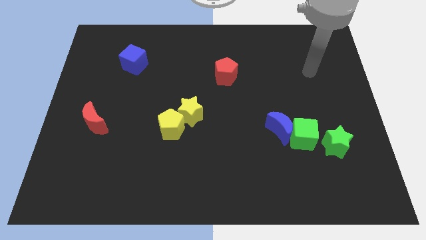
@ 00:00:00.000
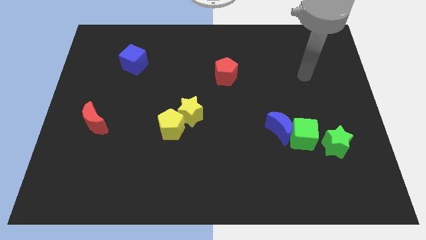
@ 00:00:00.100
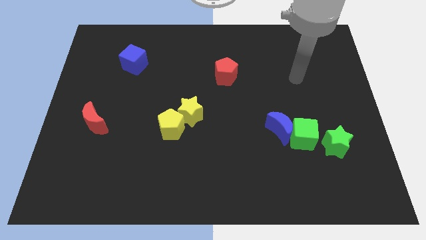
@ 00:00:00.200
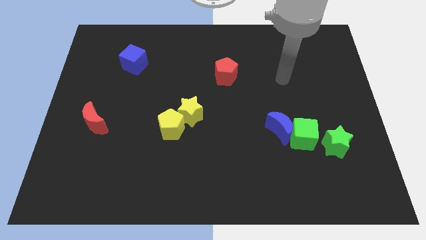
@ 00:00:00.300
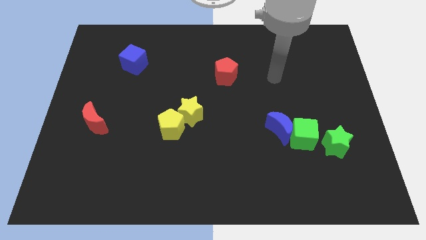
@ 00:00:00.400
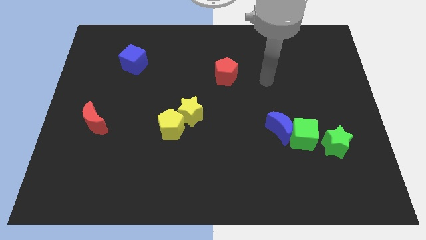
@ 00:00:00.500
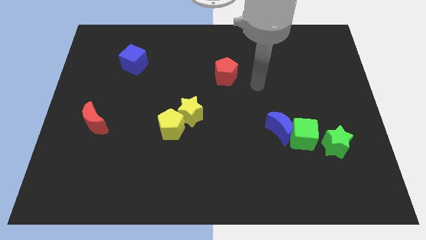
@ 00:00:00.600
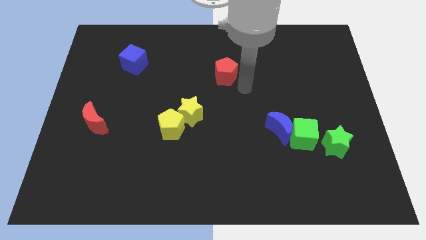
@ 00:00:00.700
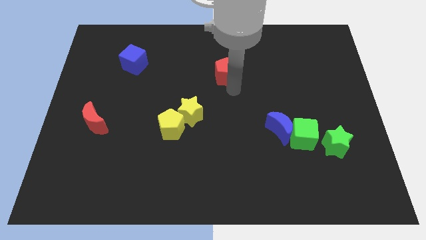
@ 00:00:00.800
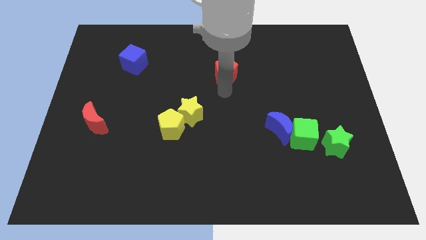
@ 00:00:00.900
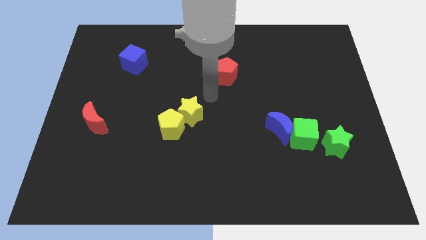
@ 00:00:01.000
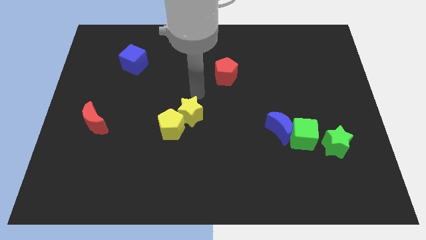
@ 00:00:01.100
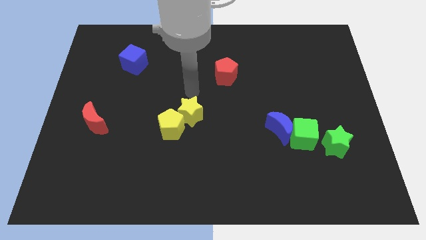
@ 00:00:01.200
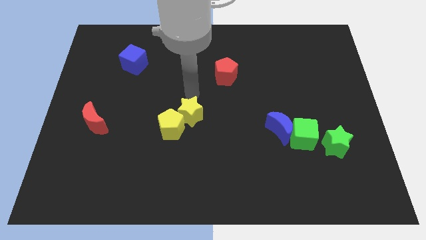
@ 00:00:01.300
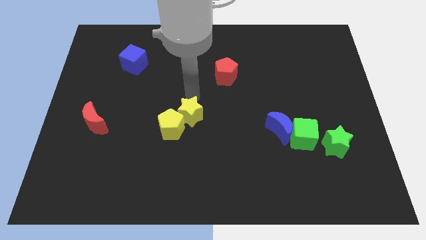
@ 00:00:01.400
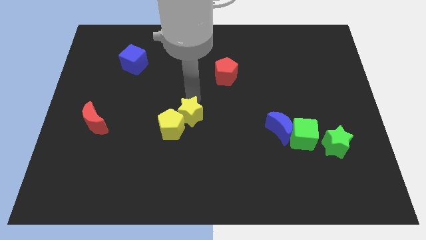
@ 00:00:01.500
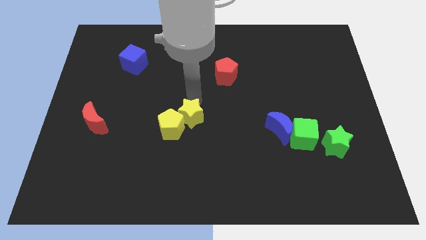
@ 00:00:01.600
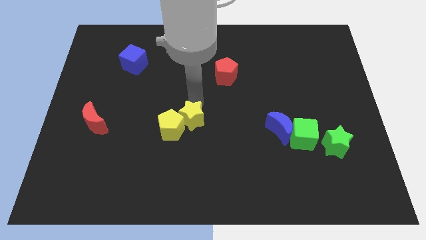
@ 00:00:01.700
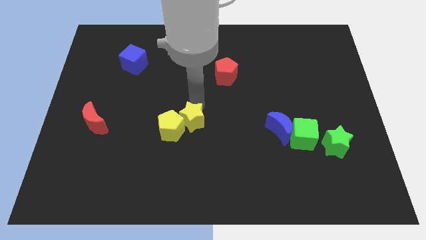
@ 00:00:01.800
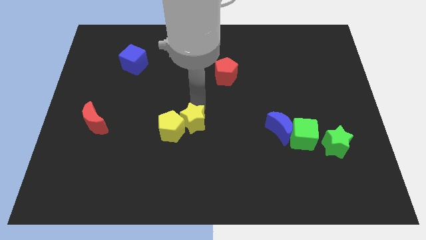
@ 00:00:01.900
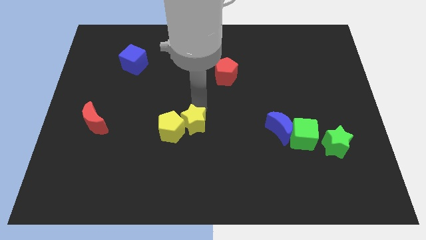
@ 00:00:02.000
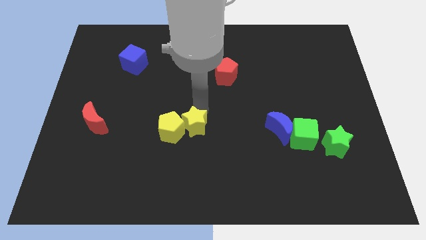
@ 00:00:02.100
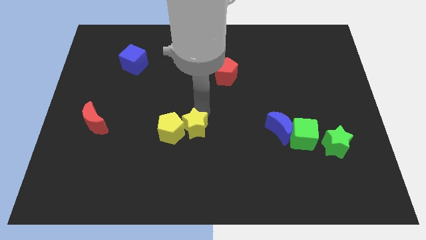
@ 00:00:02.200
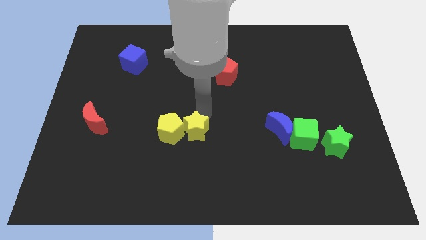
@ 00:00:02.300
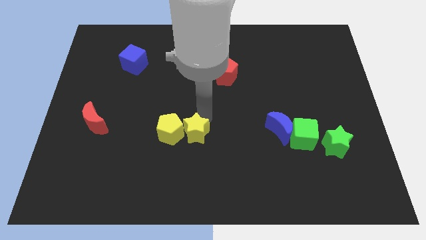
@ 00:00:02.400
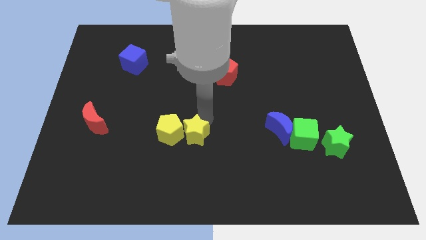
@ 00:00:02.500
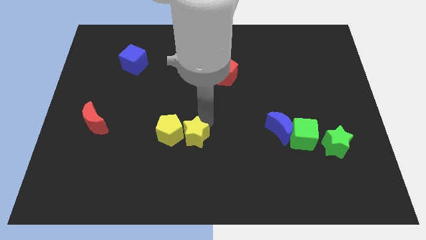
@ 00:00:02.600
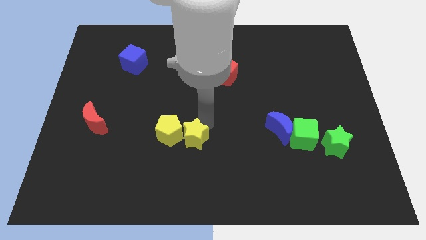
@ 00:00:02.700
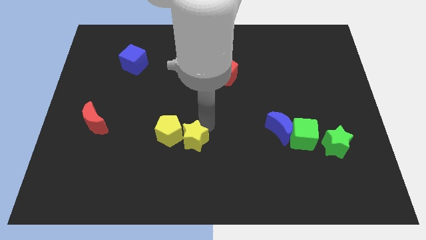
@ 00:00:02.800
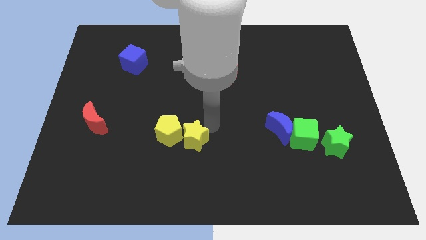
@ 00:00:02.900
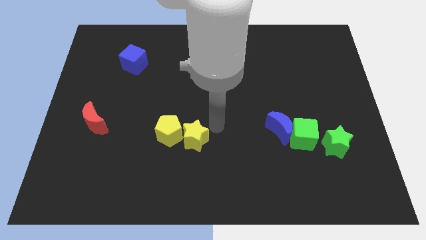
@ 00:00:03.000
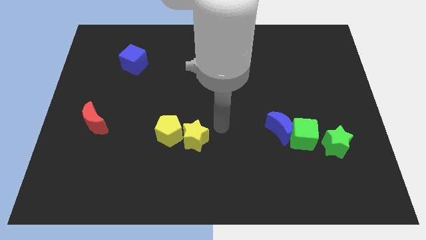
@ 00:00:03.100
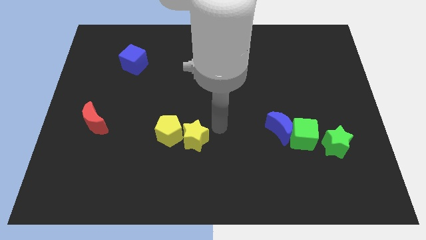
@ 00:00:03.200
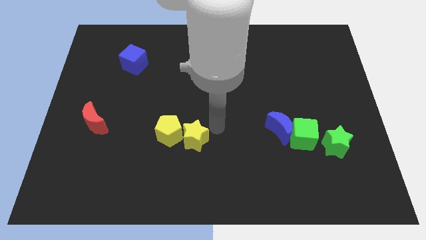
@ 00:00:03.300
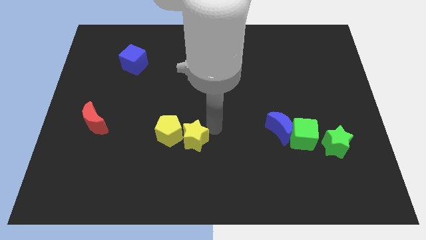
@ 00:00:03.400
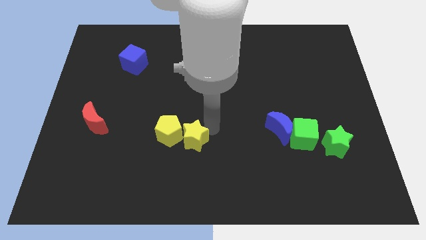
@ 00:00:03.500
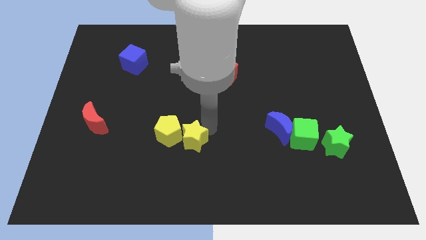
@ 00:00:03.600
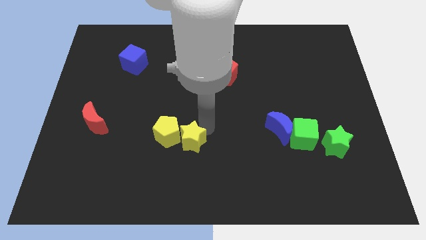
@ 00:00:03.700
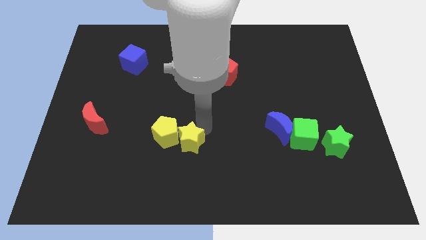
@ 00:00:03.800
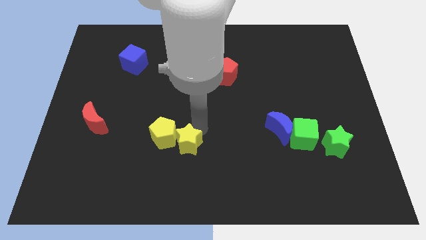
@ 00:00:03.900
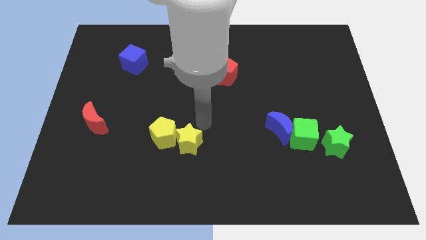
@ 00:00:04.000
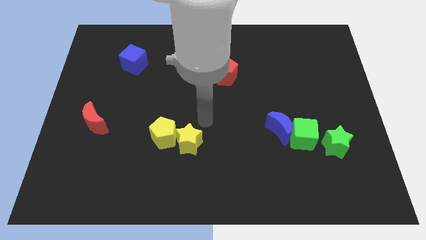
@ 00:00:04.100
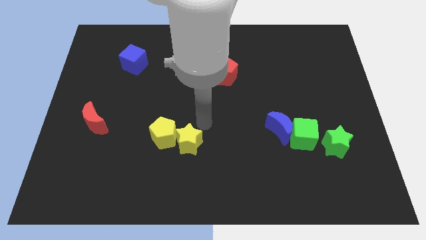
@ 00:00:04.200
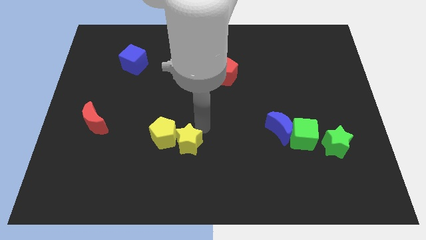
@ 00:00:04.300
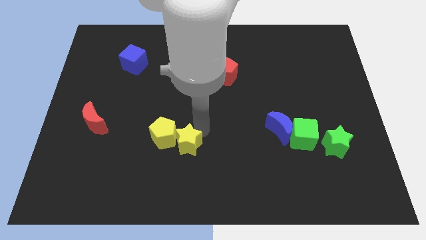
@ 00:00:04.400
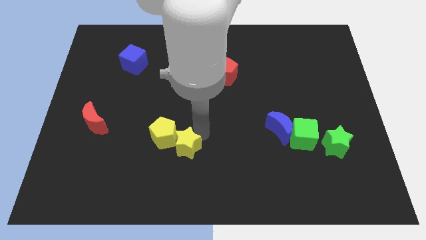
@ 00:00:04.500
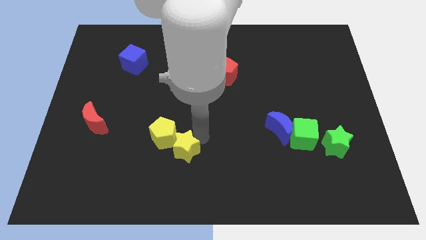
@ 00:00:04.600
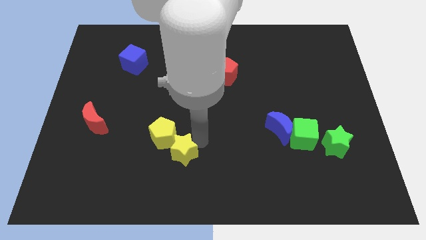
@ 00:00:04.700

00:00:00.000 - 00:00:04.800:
move the yellow star to the bottom of the yellow pentagon

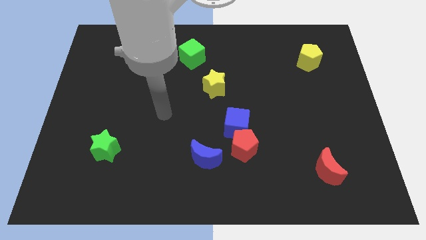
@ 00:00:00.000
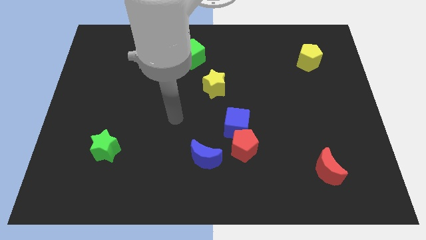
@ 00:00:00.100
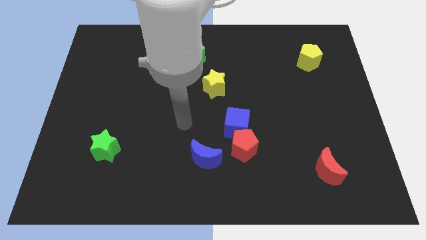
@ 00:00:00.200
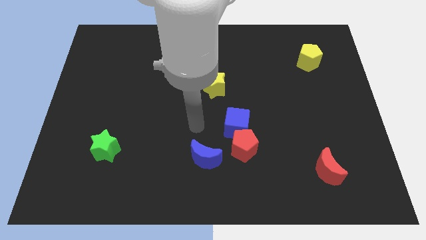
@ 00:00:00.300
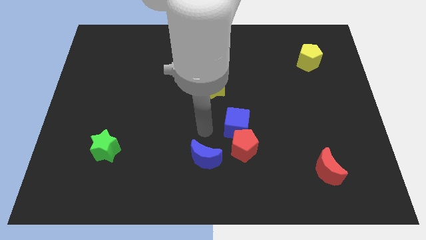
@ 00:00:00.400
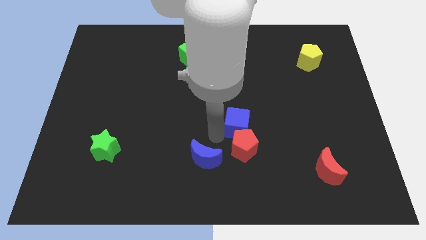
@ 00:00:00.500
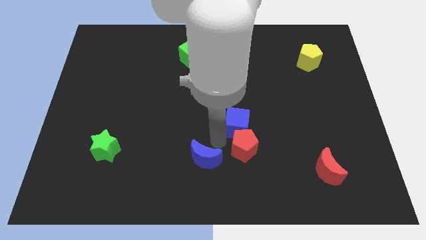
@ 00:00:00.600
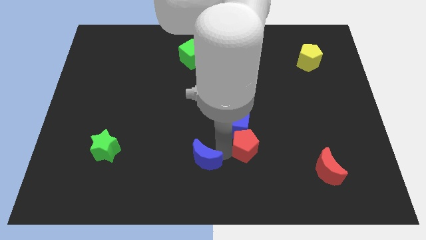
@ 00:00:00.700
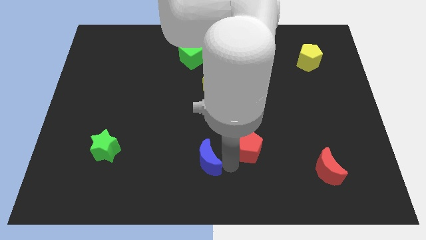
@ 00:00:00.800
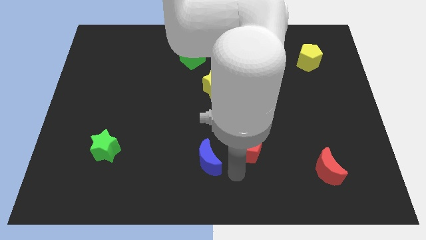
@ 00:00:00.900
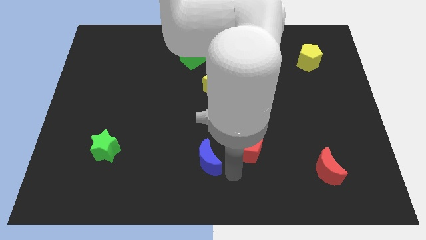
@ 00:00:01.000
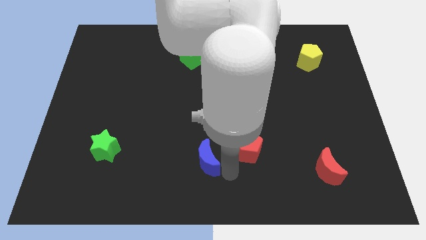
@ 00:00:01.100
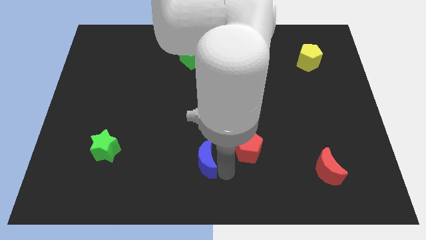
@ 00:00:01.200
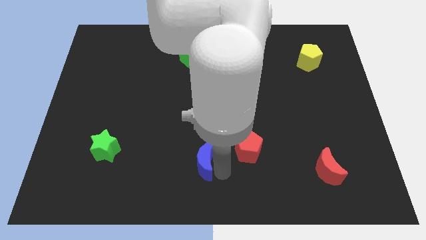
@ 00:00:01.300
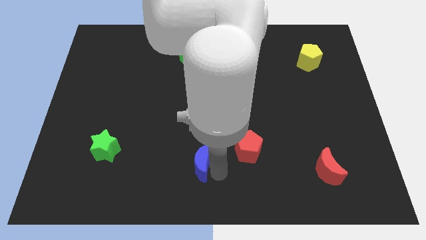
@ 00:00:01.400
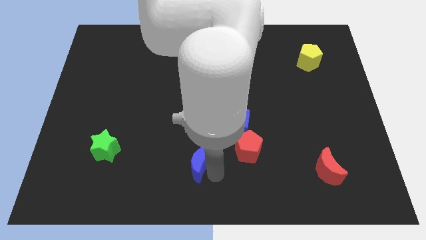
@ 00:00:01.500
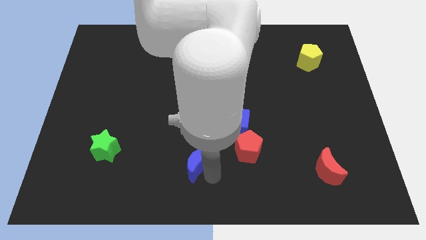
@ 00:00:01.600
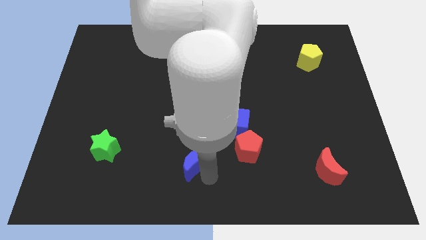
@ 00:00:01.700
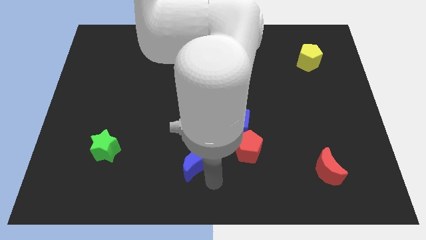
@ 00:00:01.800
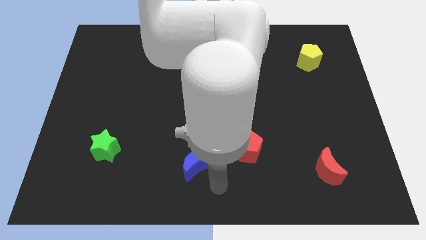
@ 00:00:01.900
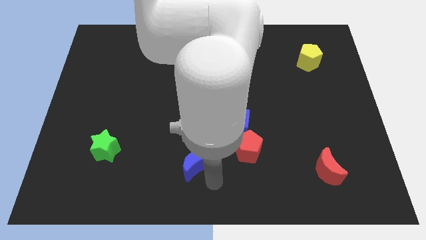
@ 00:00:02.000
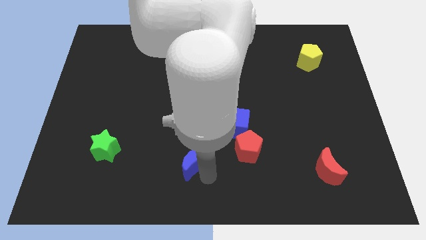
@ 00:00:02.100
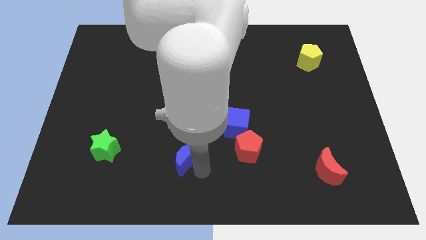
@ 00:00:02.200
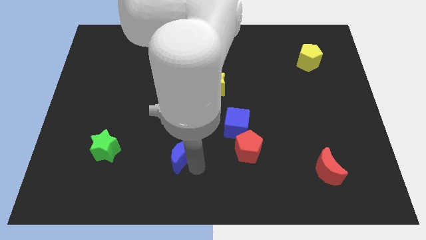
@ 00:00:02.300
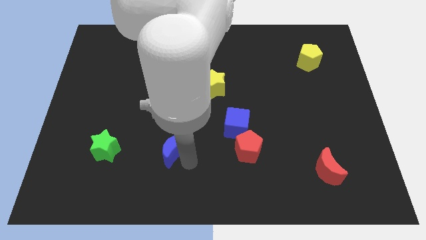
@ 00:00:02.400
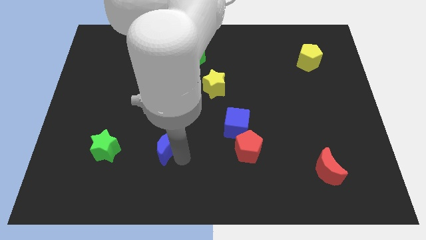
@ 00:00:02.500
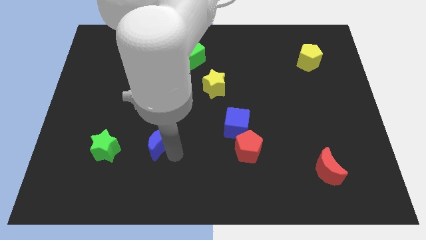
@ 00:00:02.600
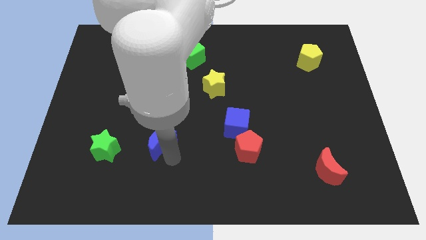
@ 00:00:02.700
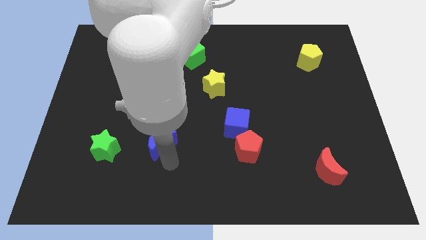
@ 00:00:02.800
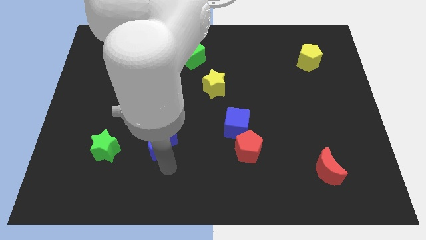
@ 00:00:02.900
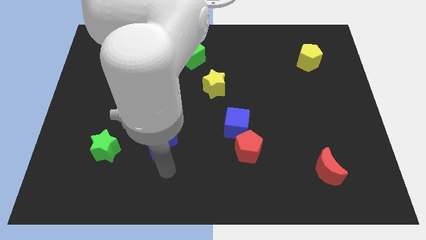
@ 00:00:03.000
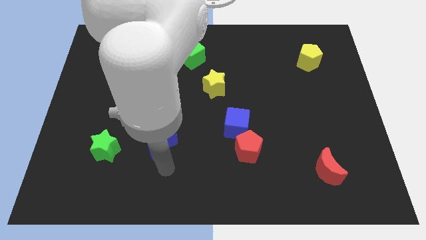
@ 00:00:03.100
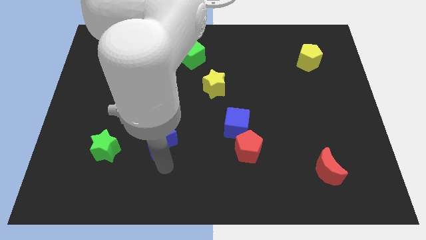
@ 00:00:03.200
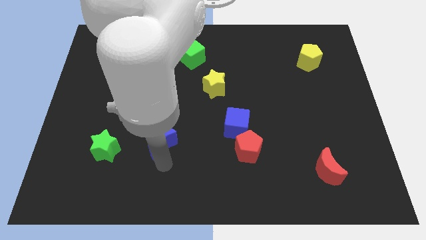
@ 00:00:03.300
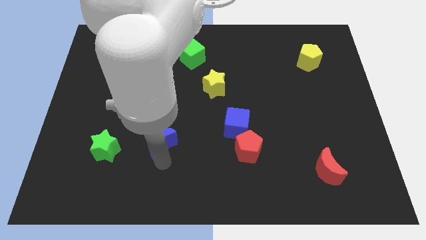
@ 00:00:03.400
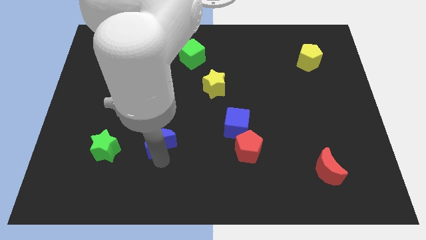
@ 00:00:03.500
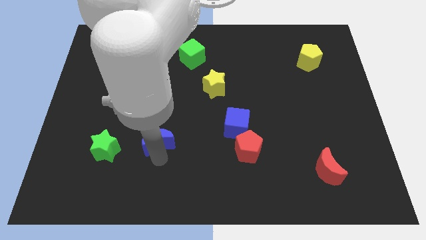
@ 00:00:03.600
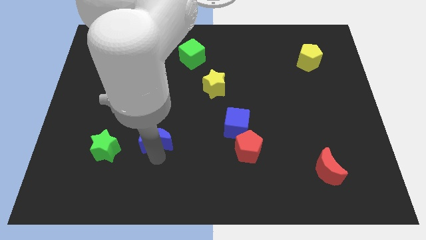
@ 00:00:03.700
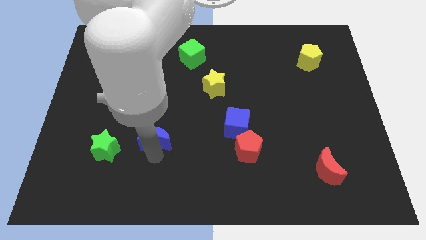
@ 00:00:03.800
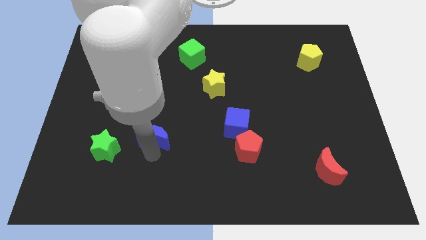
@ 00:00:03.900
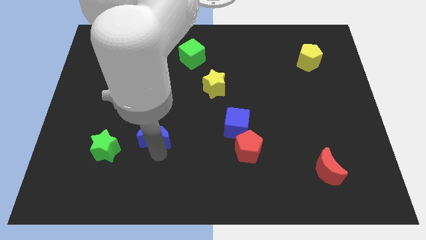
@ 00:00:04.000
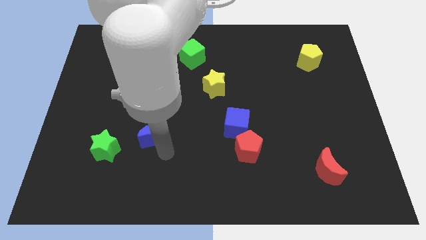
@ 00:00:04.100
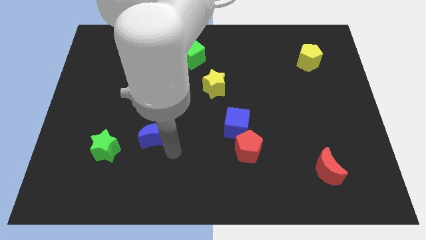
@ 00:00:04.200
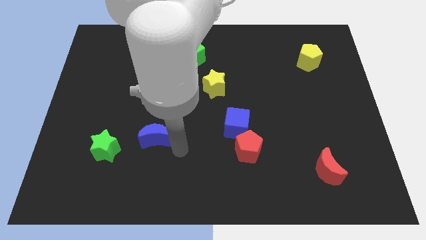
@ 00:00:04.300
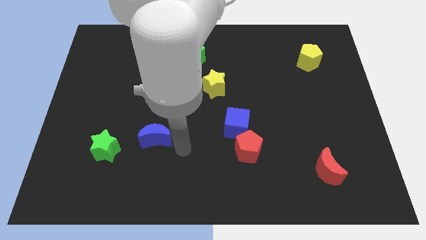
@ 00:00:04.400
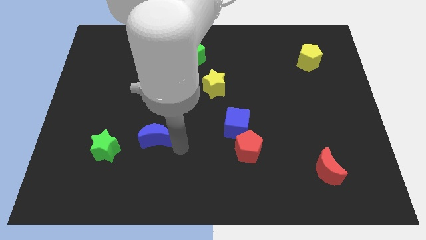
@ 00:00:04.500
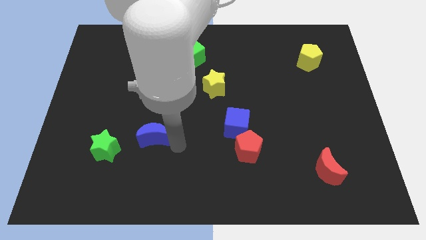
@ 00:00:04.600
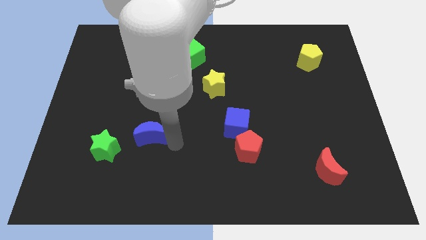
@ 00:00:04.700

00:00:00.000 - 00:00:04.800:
slide the blue moon diagonally up and to the right of the green star
